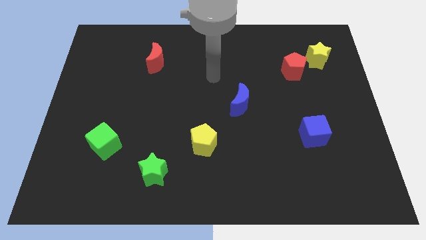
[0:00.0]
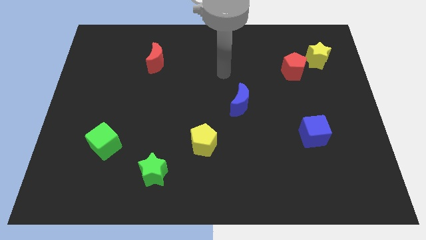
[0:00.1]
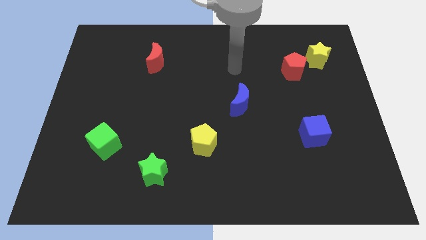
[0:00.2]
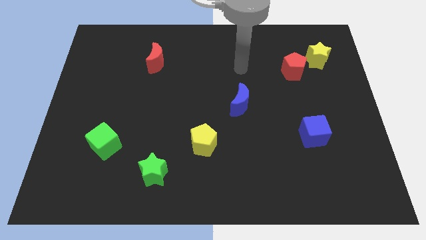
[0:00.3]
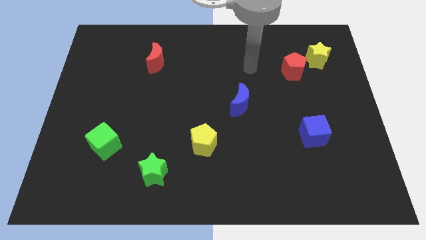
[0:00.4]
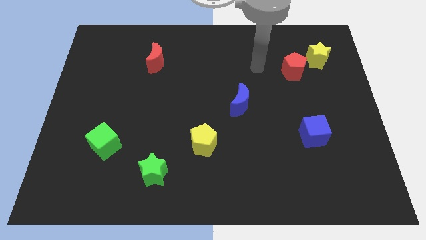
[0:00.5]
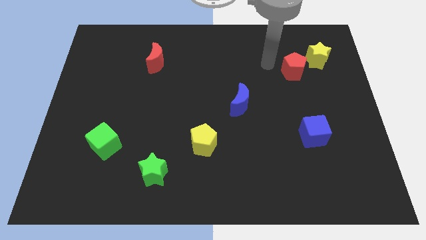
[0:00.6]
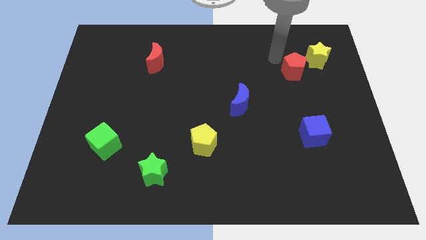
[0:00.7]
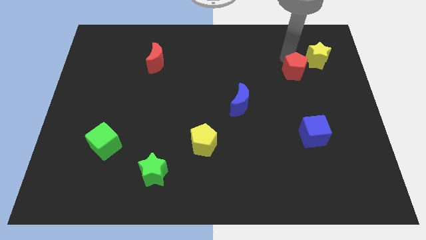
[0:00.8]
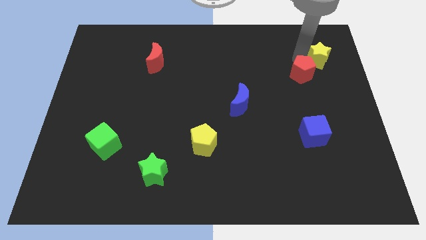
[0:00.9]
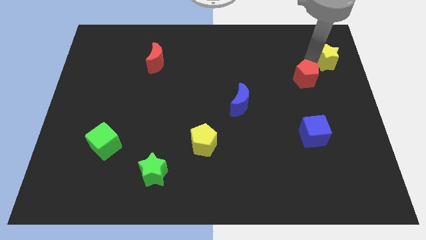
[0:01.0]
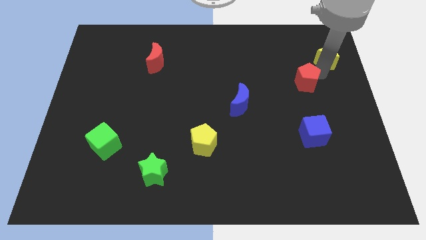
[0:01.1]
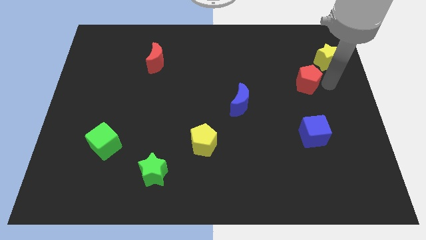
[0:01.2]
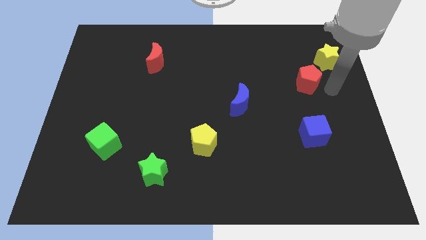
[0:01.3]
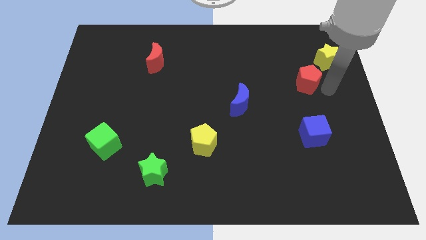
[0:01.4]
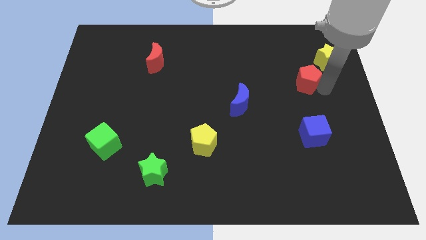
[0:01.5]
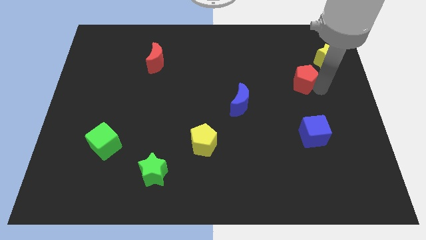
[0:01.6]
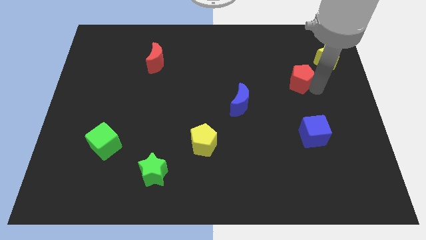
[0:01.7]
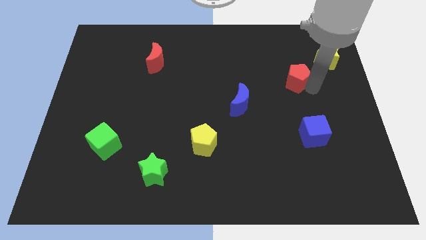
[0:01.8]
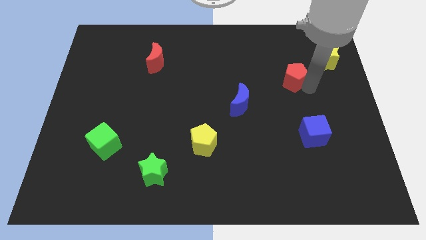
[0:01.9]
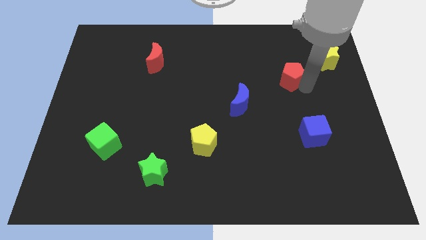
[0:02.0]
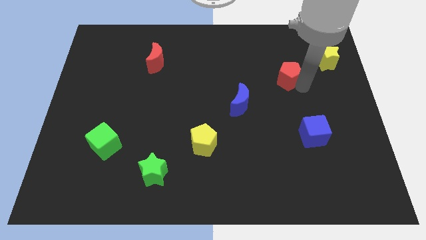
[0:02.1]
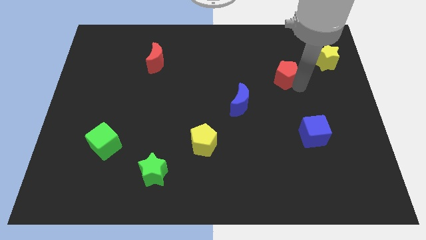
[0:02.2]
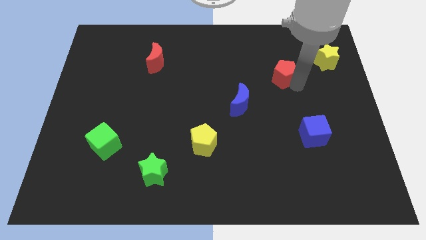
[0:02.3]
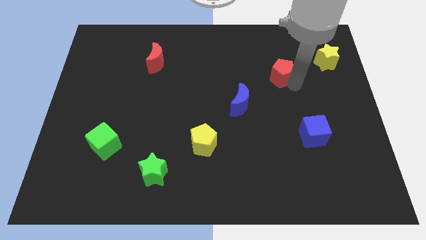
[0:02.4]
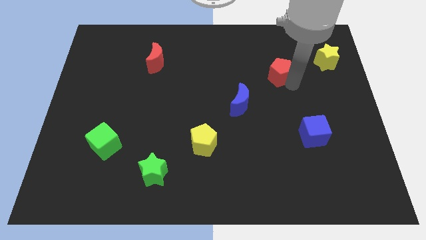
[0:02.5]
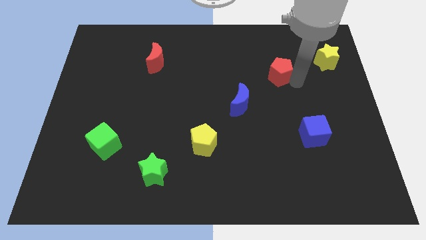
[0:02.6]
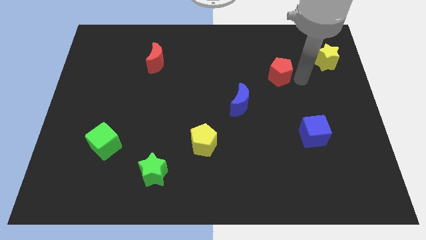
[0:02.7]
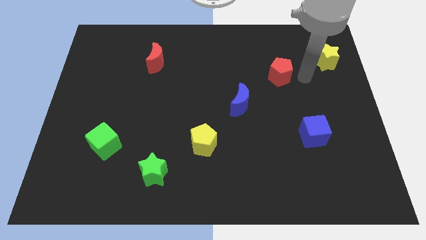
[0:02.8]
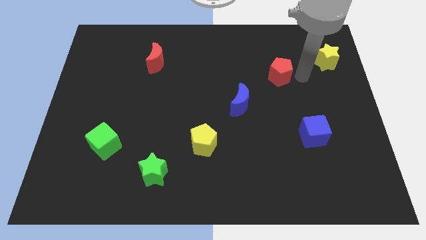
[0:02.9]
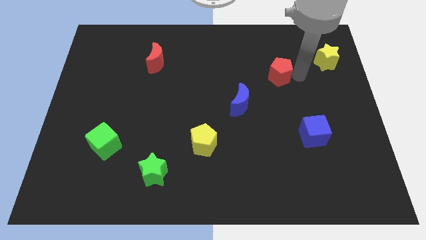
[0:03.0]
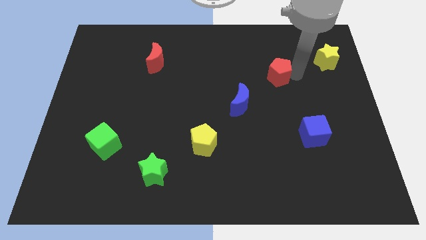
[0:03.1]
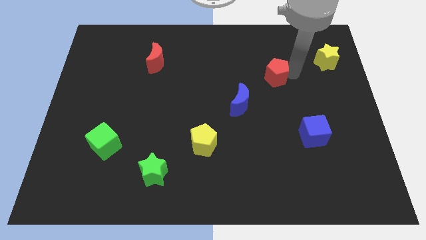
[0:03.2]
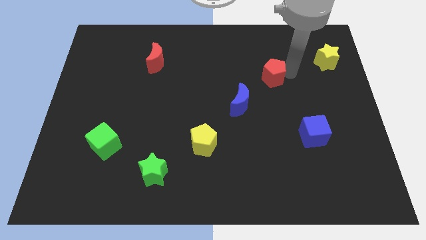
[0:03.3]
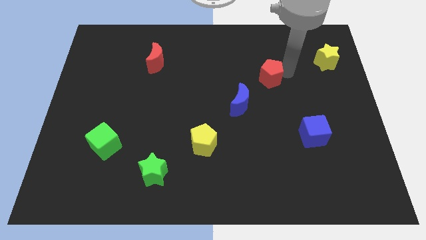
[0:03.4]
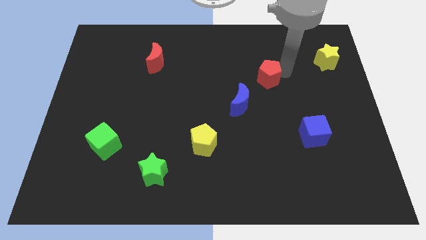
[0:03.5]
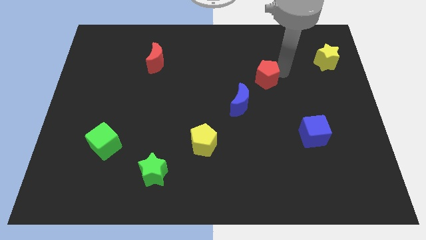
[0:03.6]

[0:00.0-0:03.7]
move the red pentagon slightly to the left

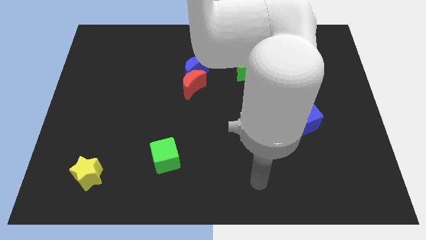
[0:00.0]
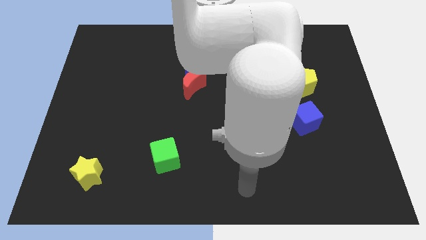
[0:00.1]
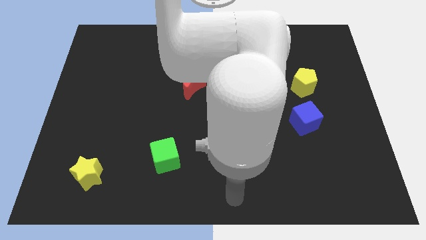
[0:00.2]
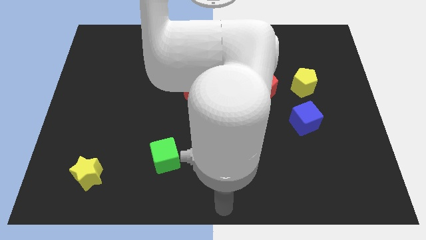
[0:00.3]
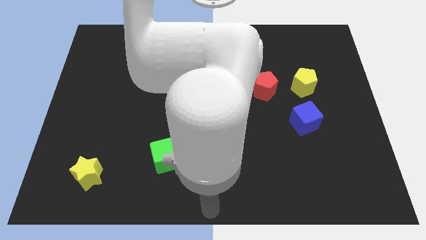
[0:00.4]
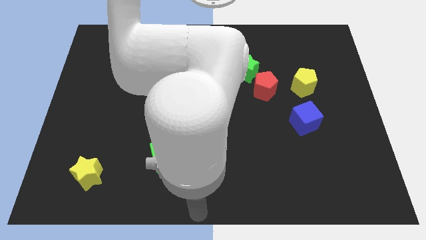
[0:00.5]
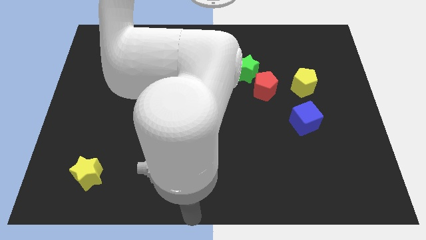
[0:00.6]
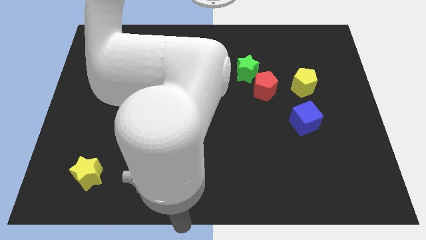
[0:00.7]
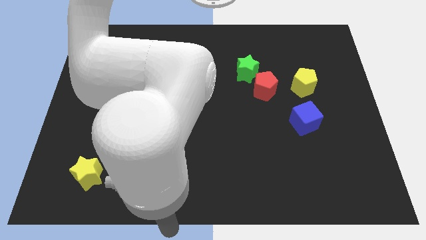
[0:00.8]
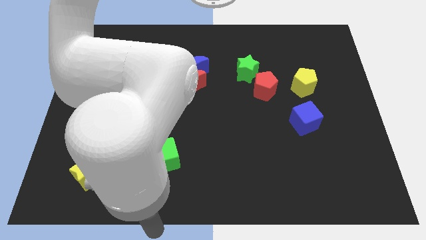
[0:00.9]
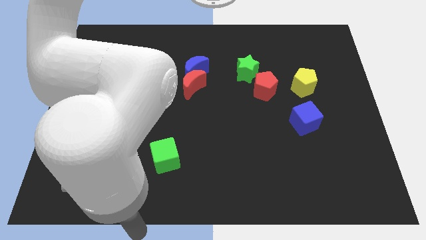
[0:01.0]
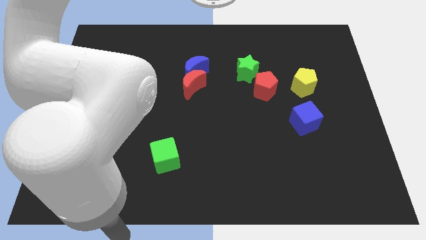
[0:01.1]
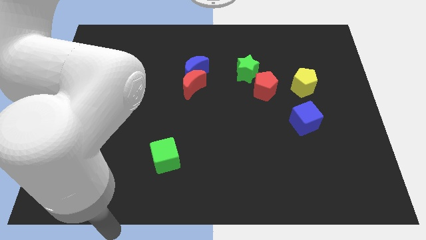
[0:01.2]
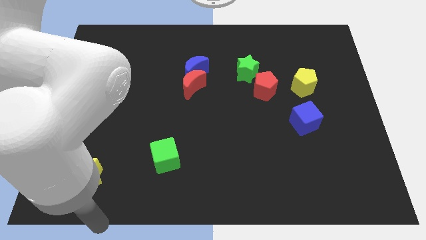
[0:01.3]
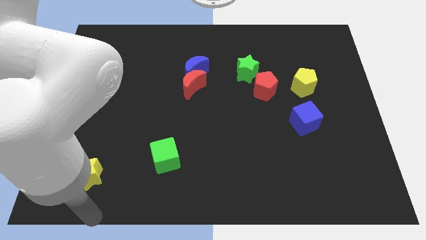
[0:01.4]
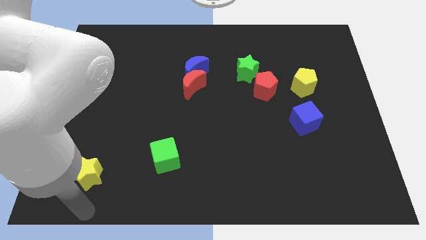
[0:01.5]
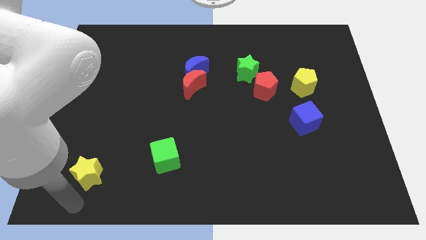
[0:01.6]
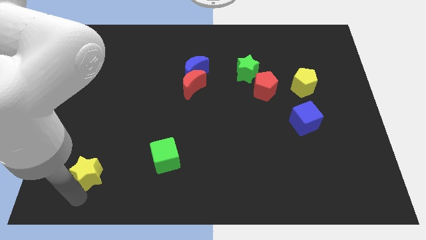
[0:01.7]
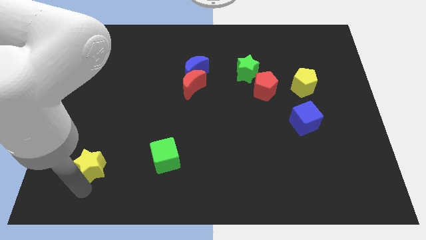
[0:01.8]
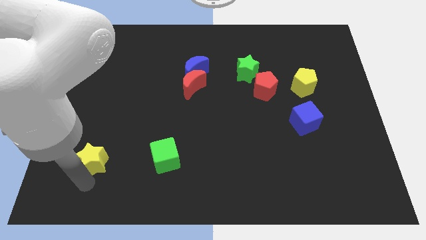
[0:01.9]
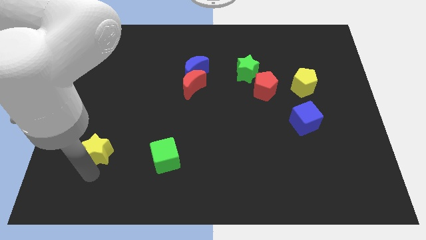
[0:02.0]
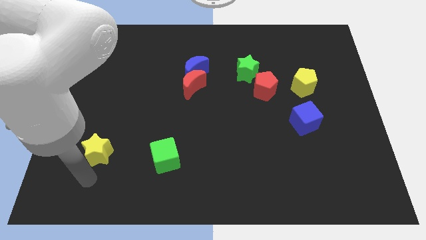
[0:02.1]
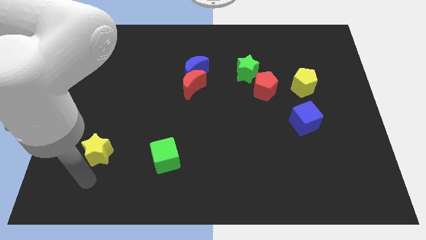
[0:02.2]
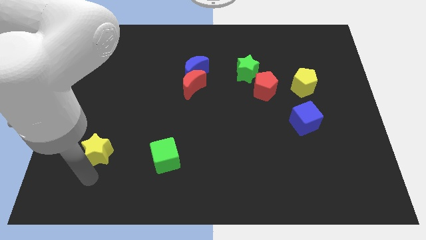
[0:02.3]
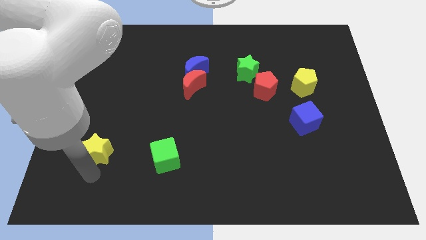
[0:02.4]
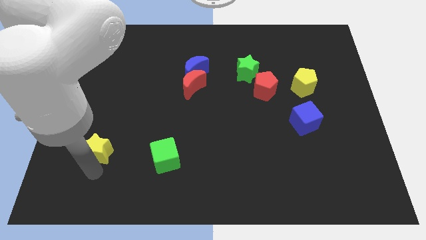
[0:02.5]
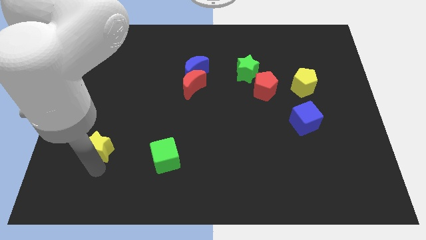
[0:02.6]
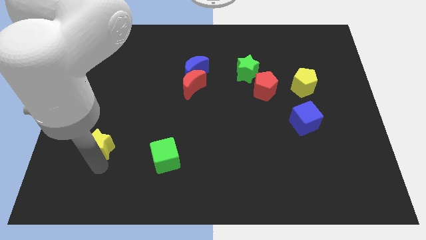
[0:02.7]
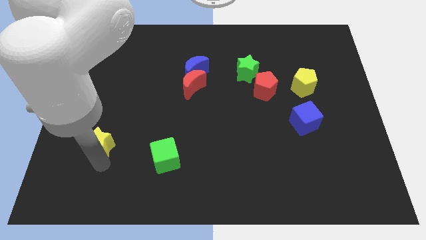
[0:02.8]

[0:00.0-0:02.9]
slightly push the yellow star upwards

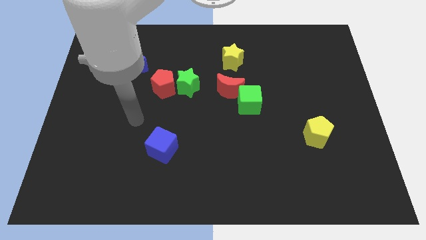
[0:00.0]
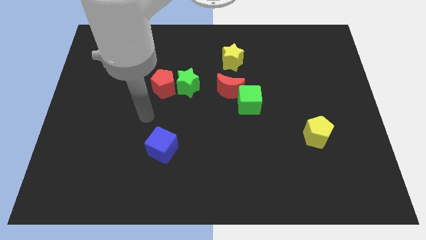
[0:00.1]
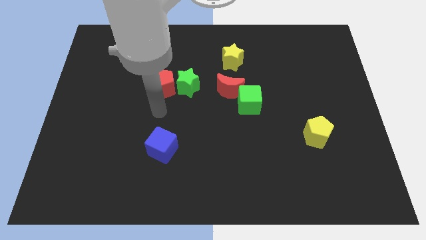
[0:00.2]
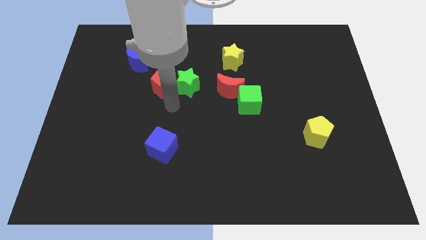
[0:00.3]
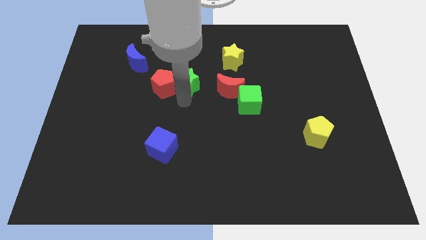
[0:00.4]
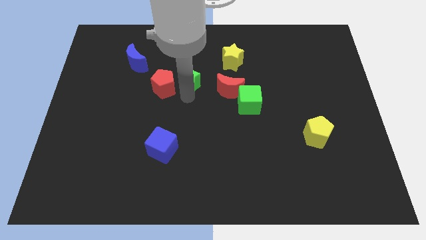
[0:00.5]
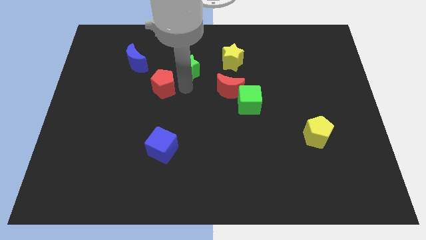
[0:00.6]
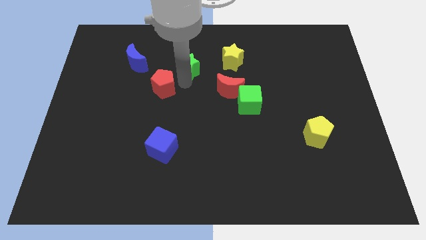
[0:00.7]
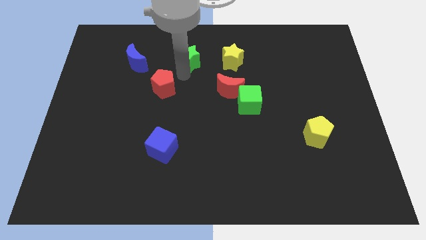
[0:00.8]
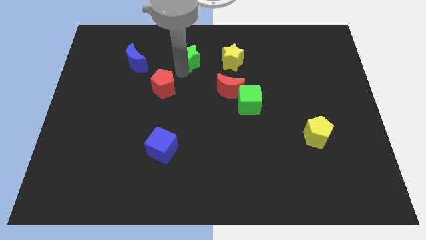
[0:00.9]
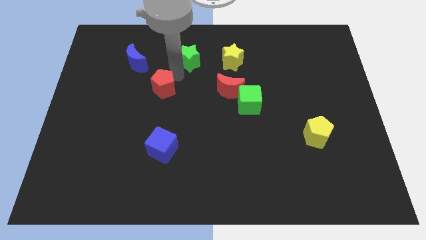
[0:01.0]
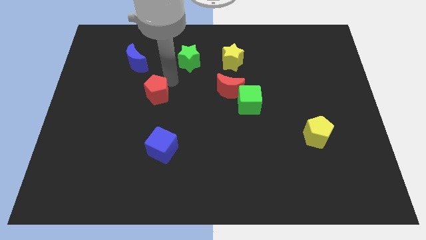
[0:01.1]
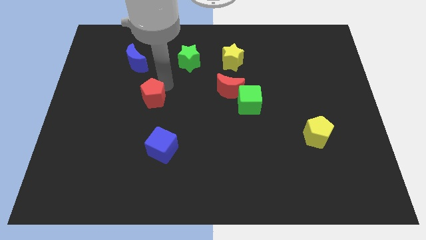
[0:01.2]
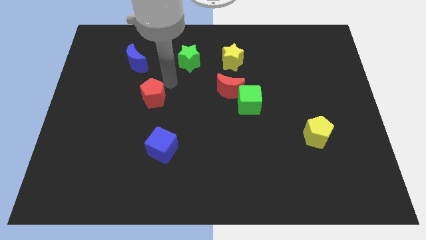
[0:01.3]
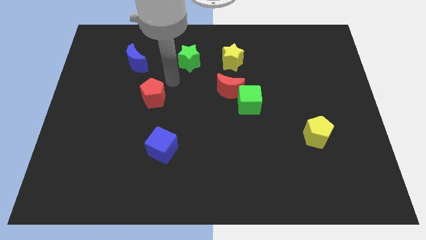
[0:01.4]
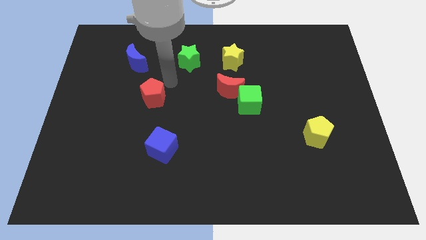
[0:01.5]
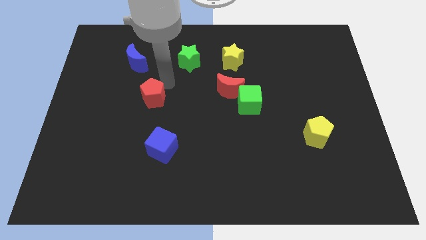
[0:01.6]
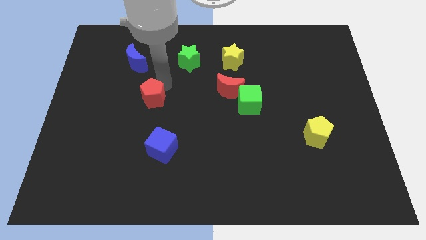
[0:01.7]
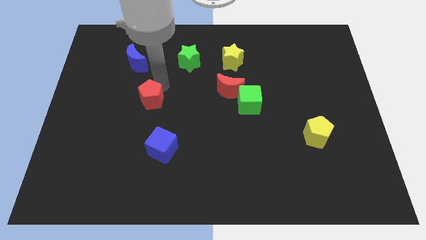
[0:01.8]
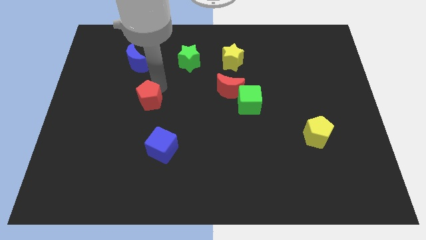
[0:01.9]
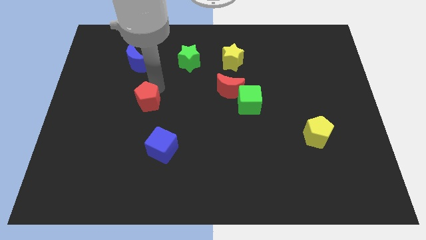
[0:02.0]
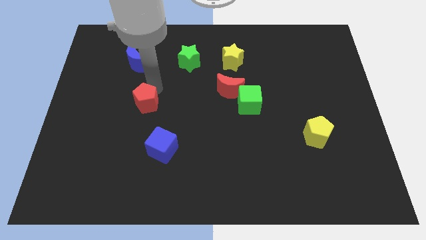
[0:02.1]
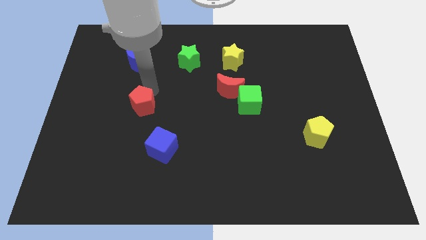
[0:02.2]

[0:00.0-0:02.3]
push the red pentagon a little bit down and left
